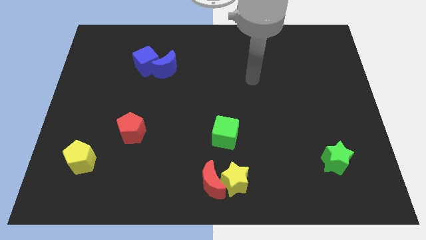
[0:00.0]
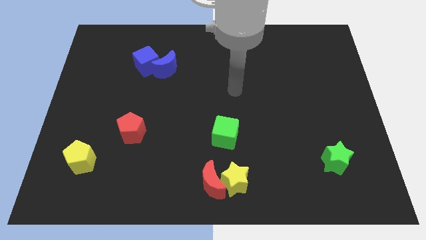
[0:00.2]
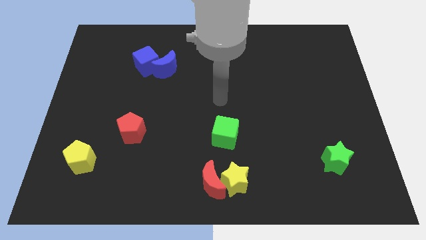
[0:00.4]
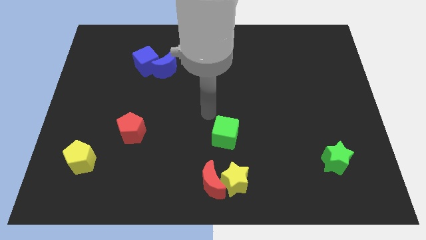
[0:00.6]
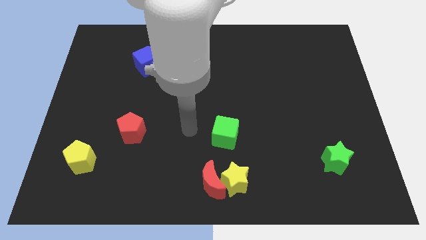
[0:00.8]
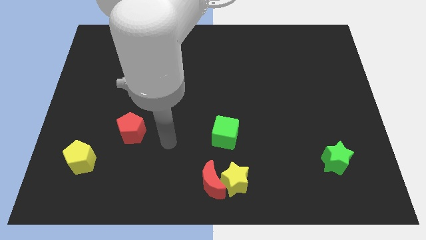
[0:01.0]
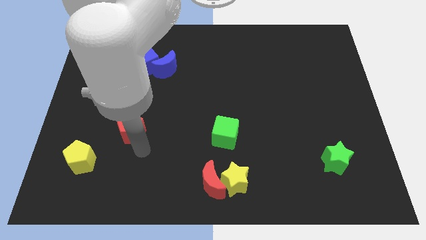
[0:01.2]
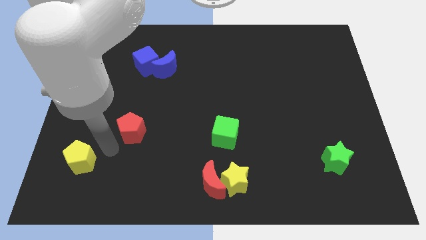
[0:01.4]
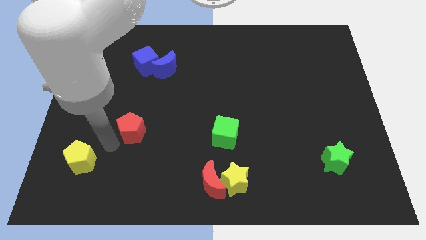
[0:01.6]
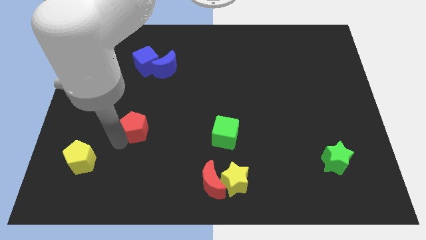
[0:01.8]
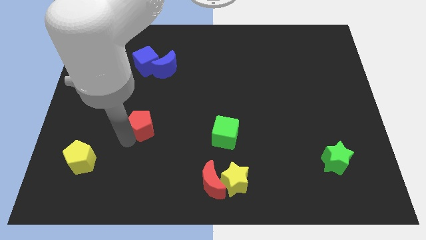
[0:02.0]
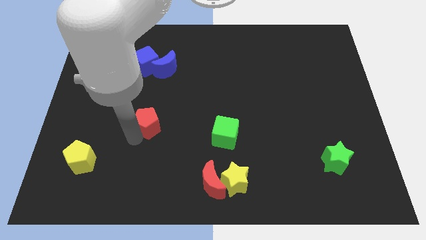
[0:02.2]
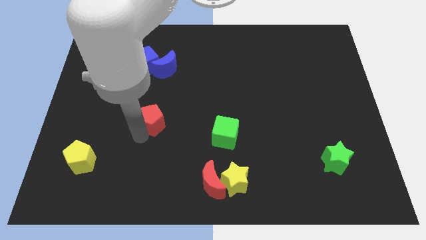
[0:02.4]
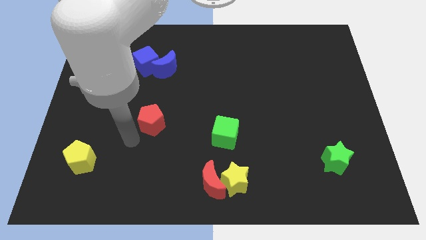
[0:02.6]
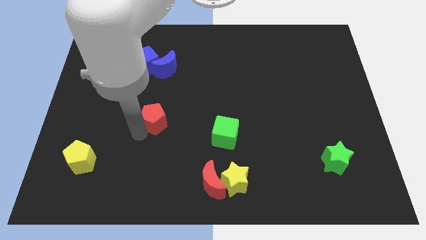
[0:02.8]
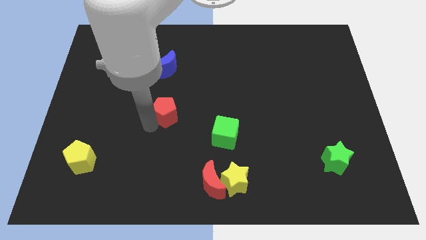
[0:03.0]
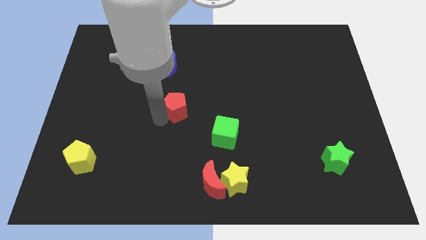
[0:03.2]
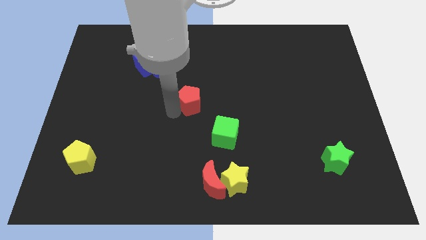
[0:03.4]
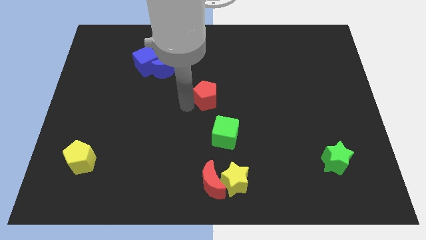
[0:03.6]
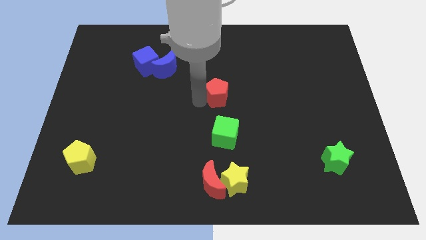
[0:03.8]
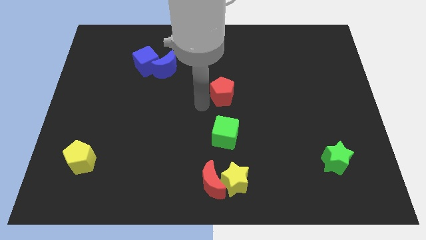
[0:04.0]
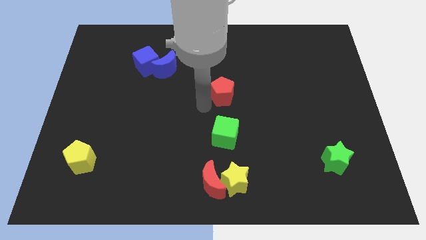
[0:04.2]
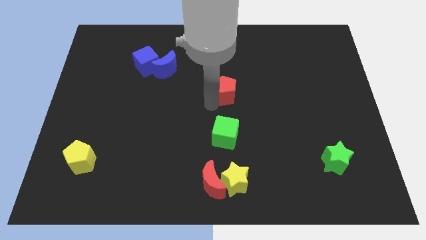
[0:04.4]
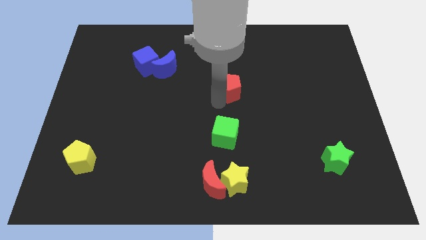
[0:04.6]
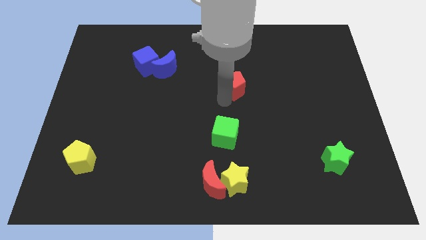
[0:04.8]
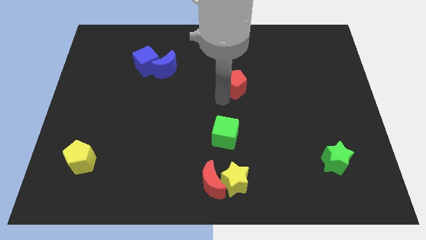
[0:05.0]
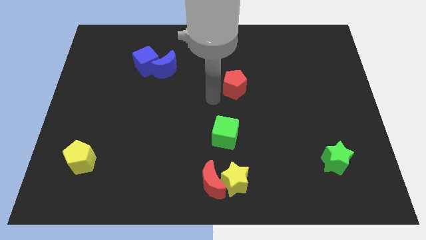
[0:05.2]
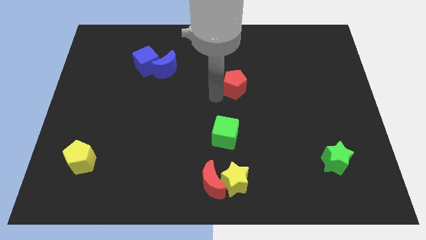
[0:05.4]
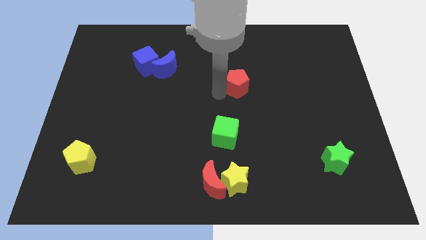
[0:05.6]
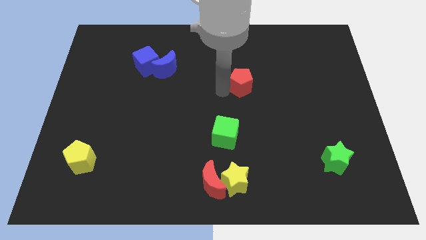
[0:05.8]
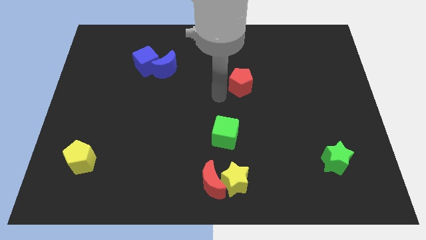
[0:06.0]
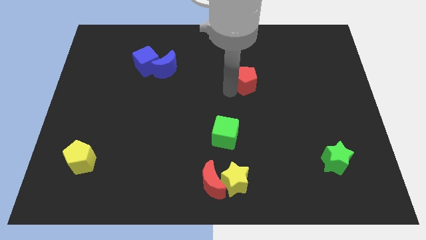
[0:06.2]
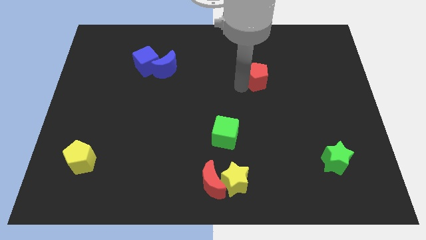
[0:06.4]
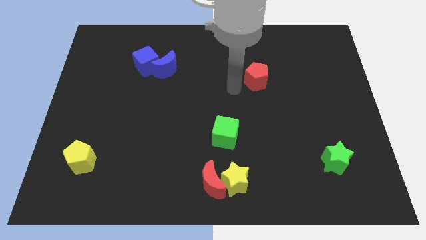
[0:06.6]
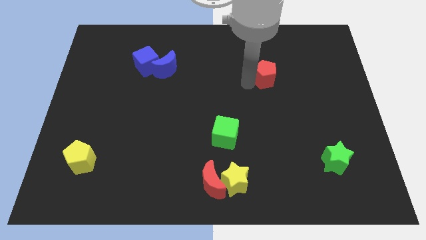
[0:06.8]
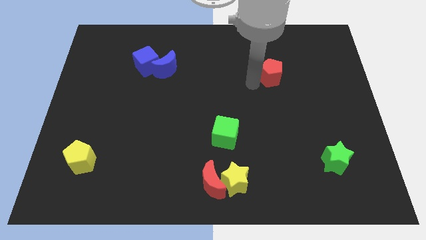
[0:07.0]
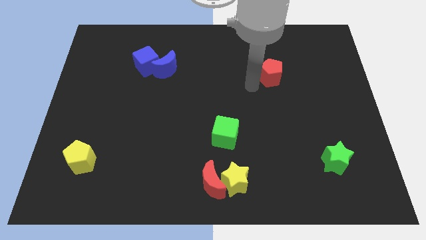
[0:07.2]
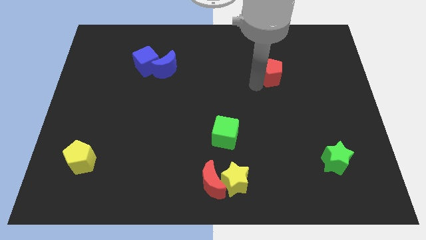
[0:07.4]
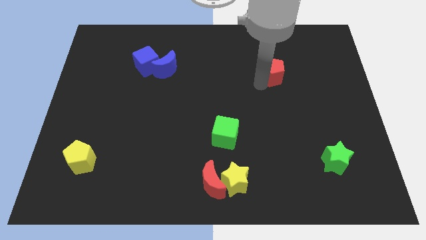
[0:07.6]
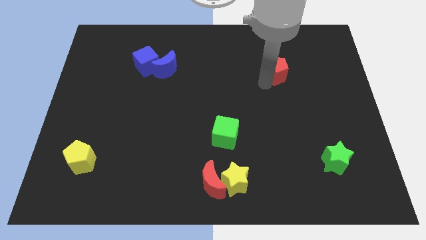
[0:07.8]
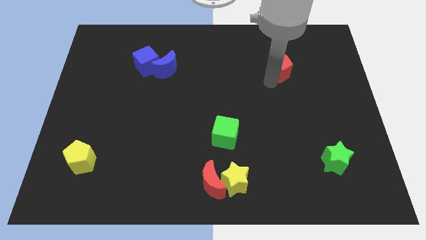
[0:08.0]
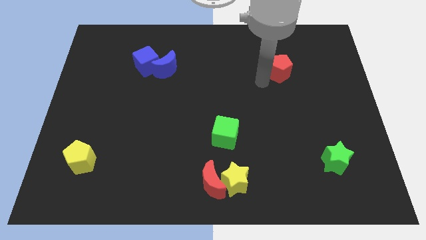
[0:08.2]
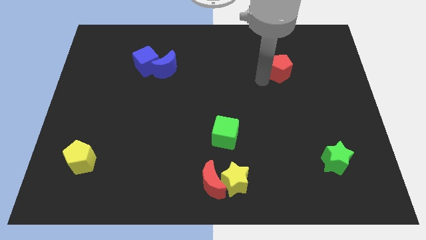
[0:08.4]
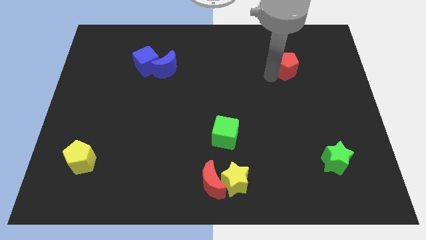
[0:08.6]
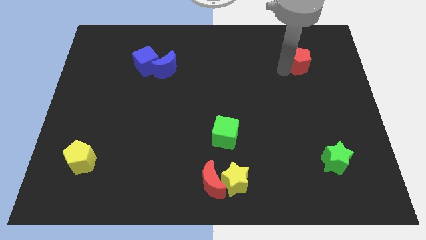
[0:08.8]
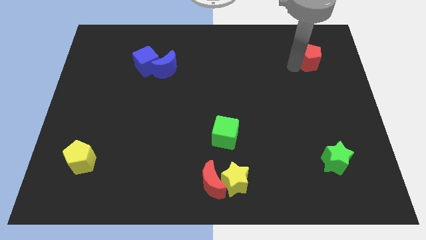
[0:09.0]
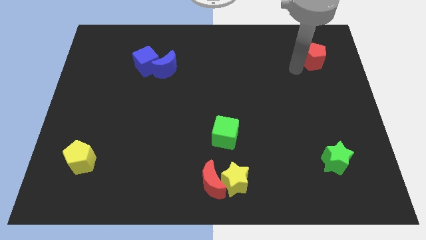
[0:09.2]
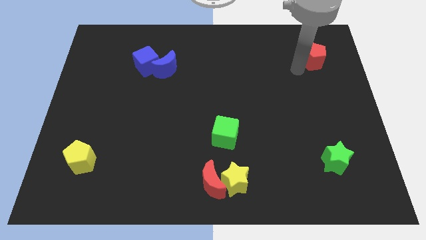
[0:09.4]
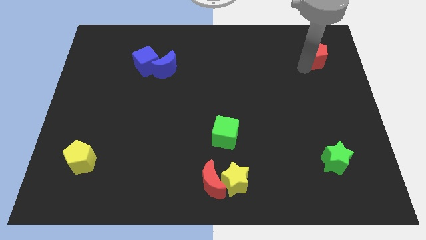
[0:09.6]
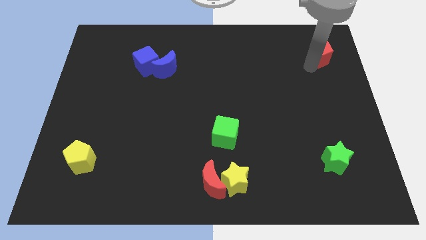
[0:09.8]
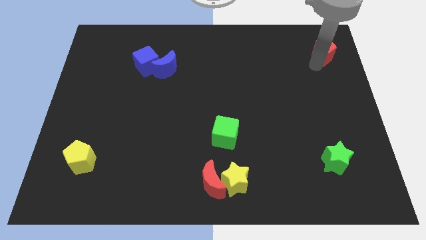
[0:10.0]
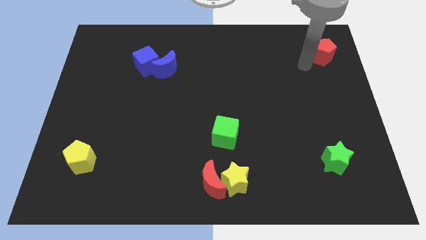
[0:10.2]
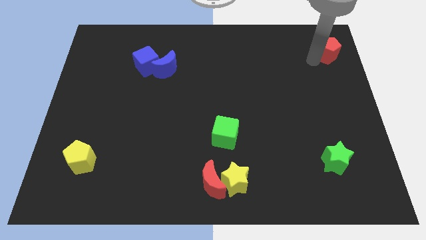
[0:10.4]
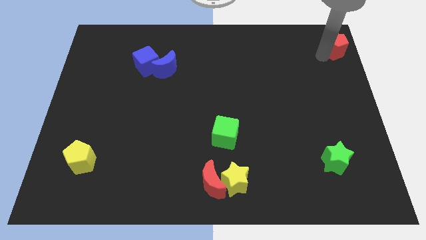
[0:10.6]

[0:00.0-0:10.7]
slide the red pentagon to the top right corner
